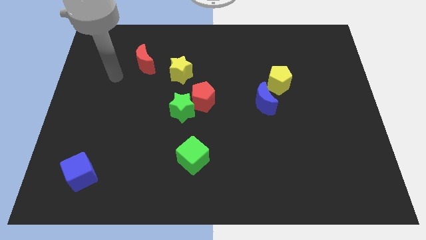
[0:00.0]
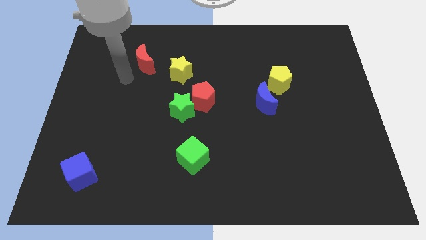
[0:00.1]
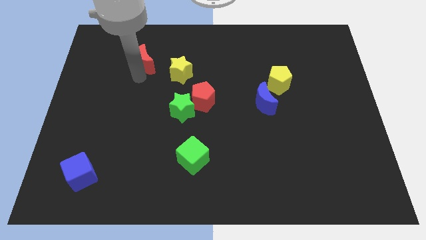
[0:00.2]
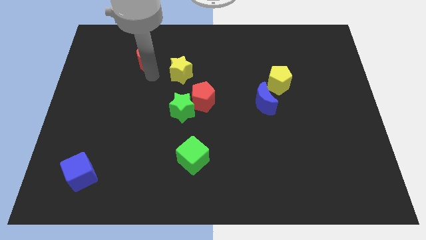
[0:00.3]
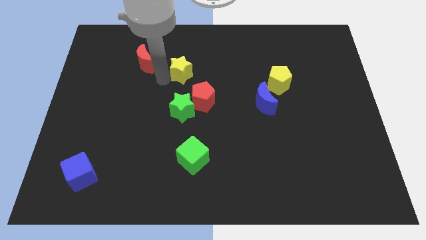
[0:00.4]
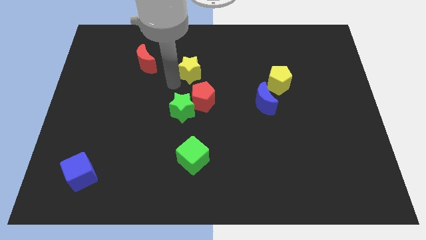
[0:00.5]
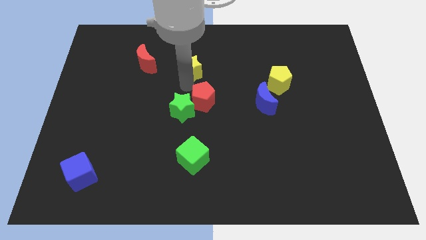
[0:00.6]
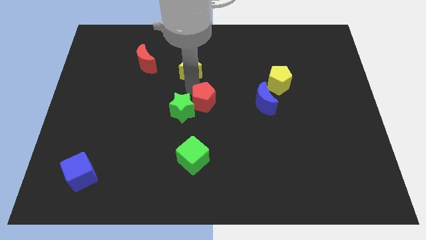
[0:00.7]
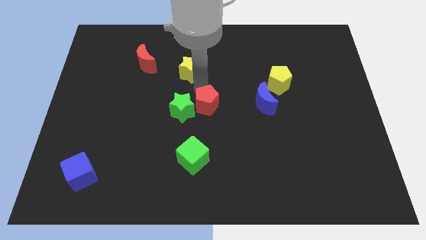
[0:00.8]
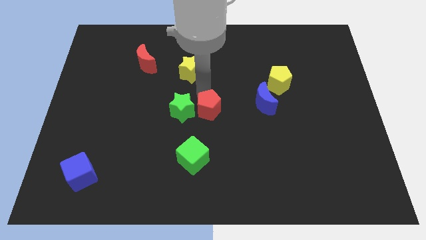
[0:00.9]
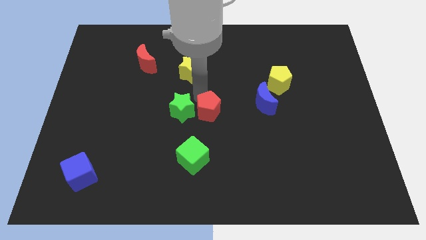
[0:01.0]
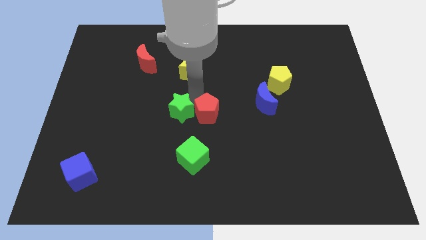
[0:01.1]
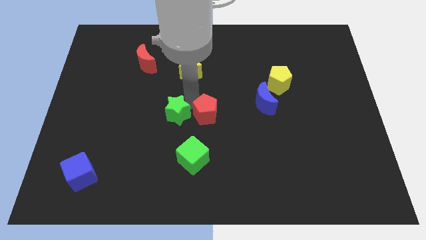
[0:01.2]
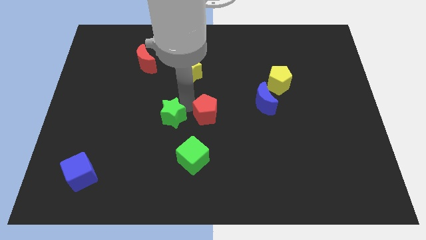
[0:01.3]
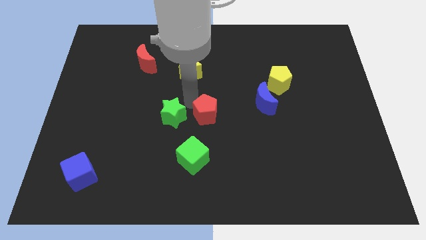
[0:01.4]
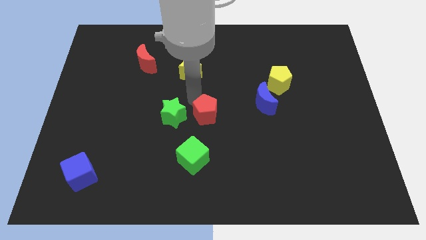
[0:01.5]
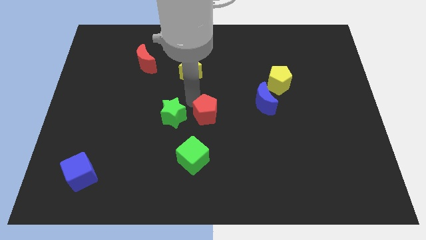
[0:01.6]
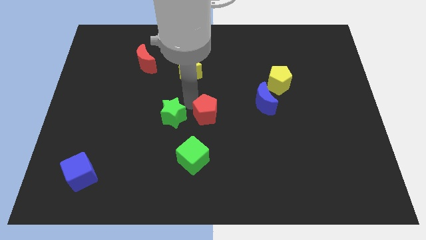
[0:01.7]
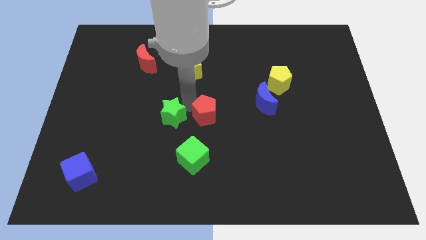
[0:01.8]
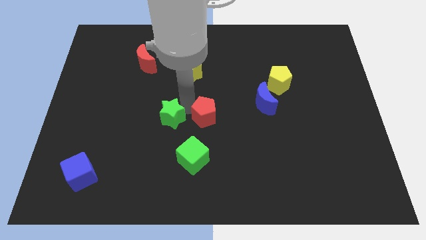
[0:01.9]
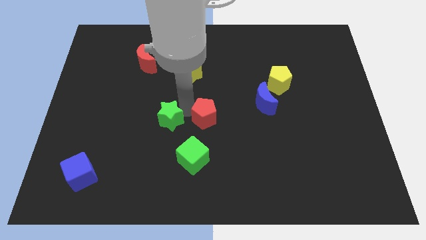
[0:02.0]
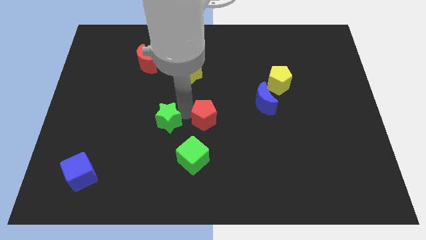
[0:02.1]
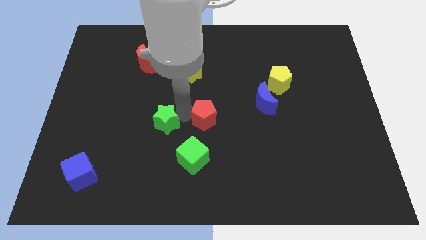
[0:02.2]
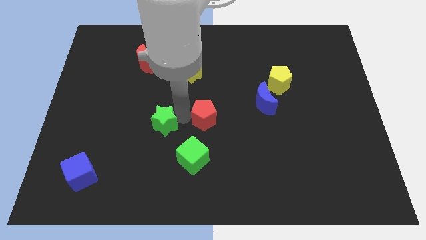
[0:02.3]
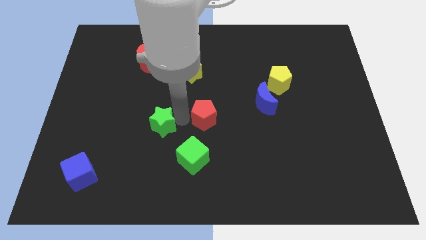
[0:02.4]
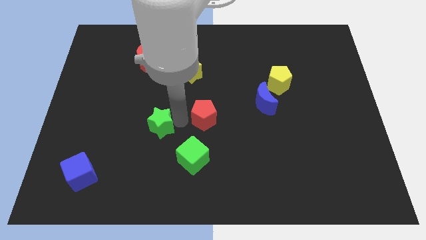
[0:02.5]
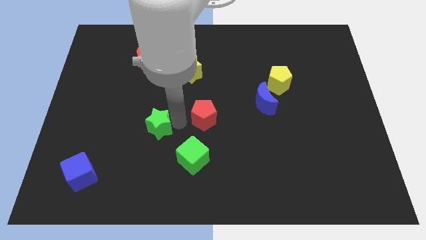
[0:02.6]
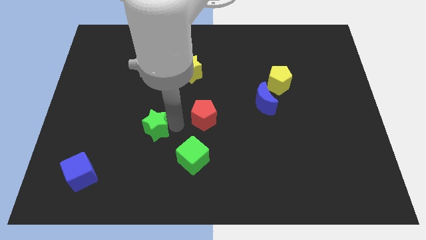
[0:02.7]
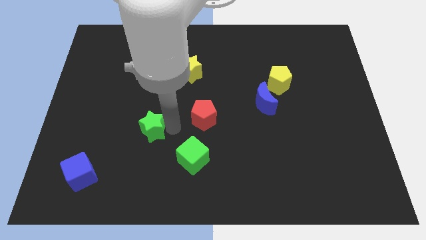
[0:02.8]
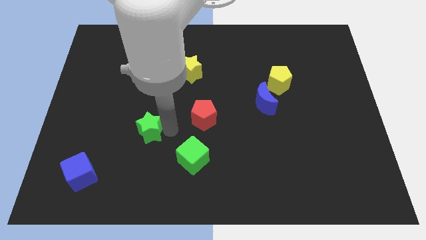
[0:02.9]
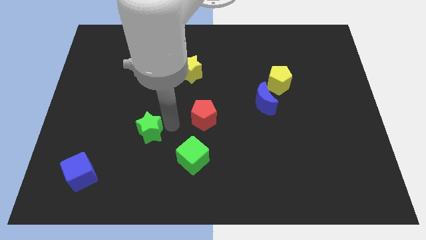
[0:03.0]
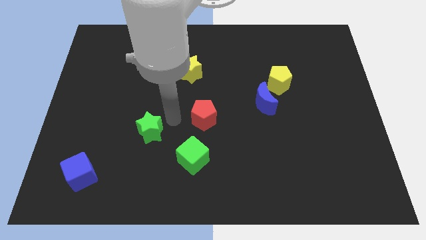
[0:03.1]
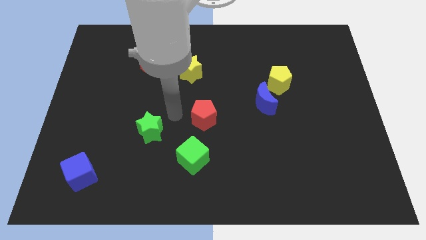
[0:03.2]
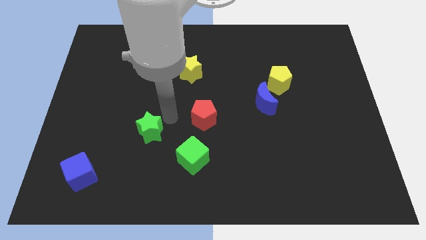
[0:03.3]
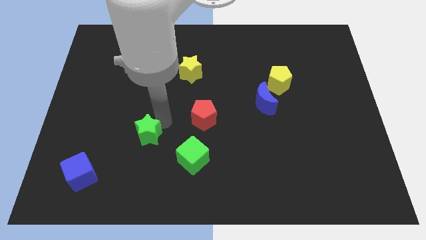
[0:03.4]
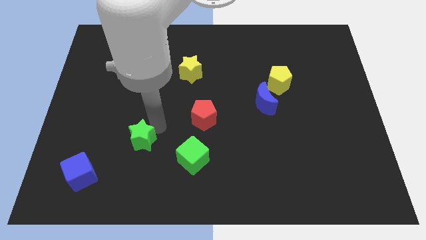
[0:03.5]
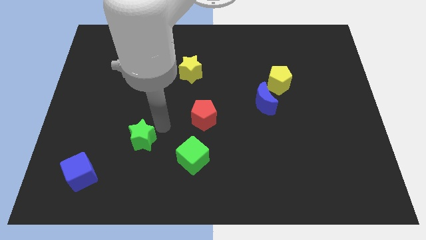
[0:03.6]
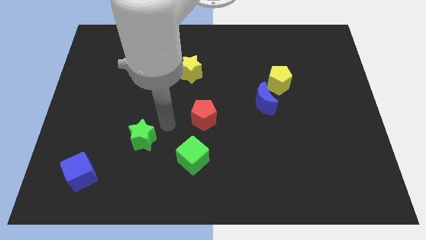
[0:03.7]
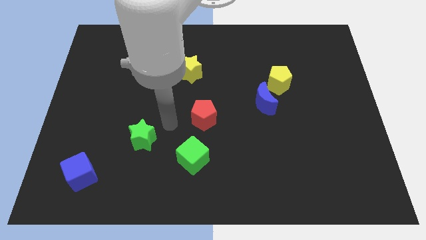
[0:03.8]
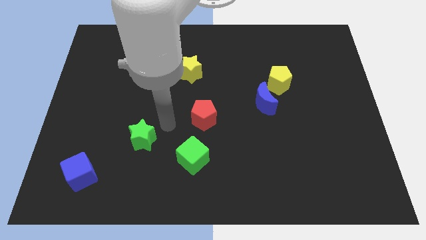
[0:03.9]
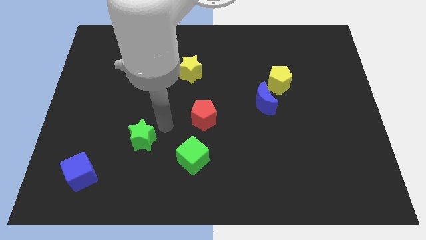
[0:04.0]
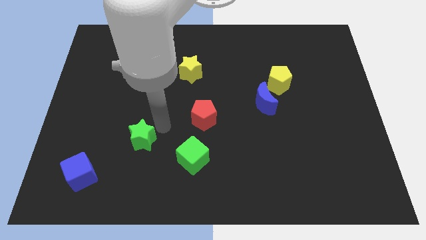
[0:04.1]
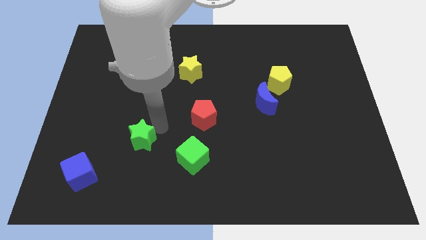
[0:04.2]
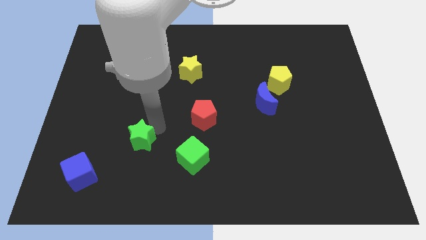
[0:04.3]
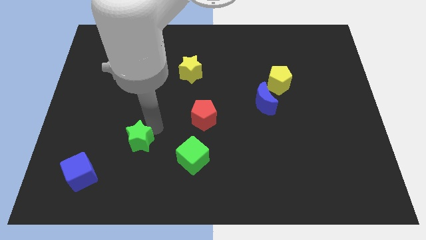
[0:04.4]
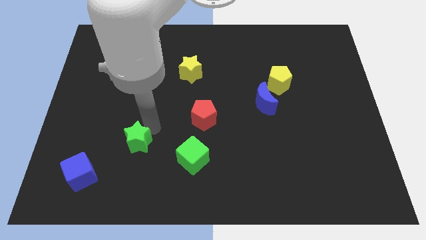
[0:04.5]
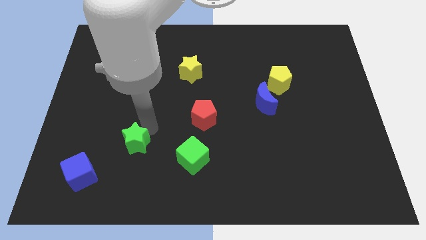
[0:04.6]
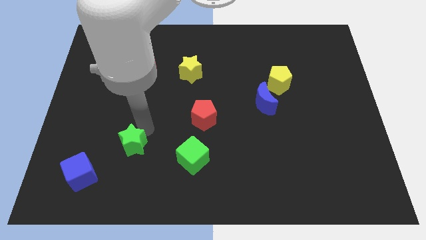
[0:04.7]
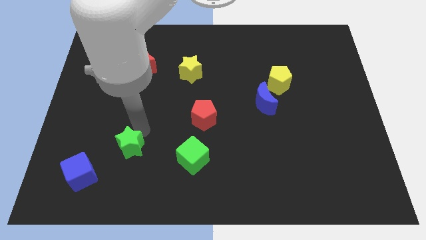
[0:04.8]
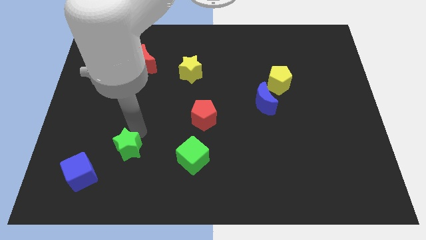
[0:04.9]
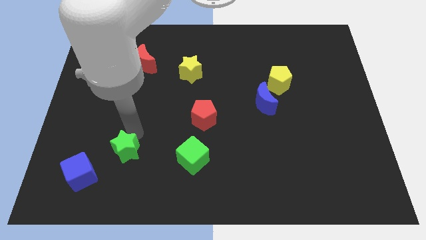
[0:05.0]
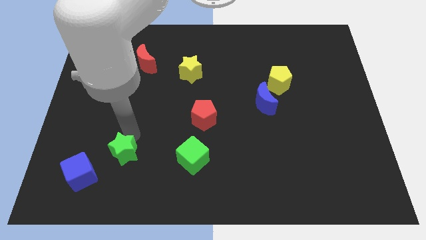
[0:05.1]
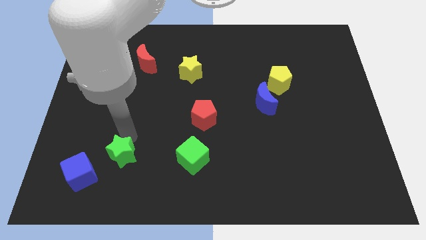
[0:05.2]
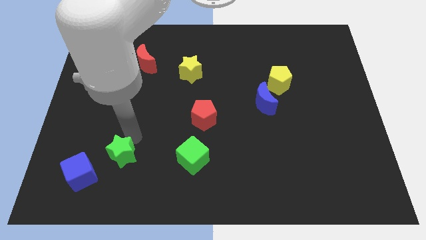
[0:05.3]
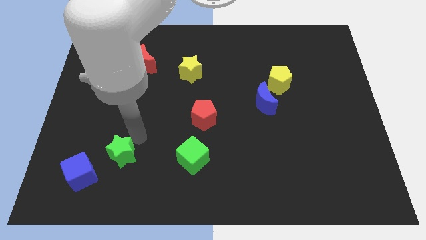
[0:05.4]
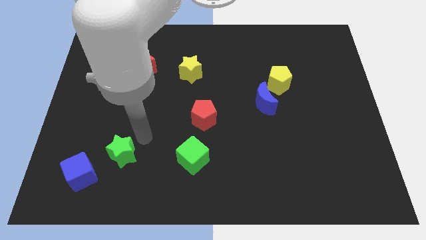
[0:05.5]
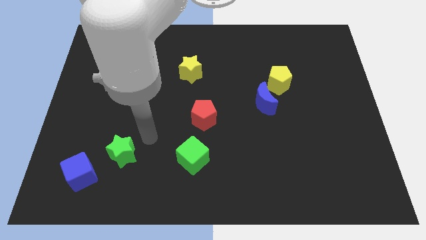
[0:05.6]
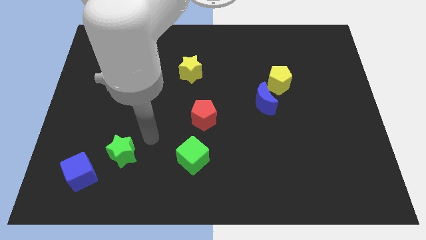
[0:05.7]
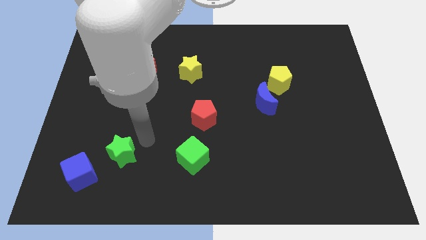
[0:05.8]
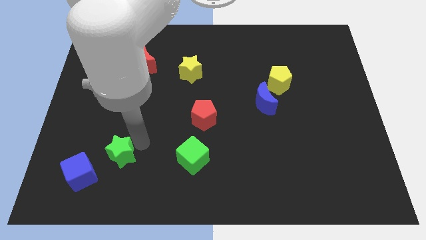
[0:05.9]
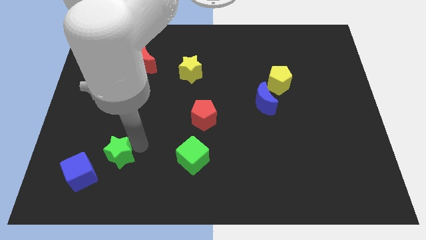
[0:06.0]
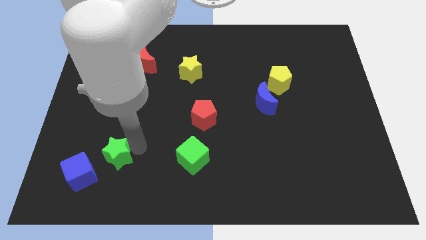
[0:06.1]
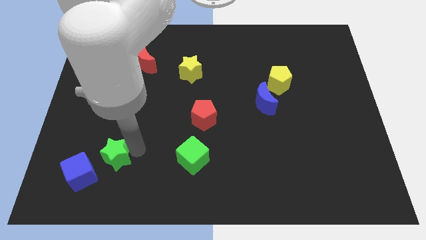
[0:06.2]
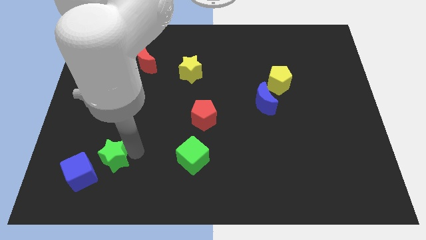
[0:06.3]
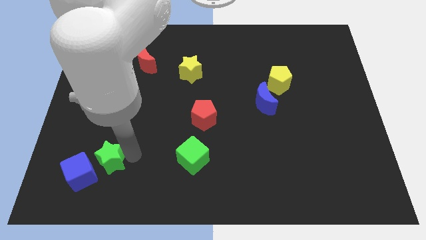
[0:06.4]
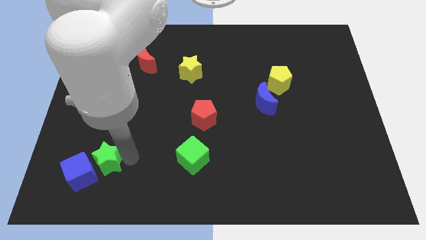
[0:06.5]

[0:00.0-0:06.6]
move the green star close to the blue cube
